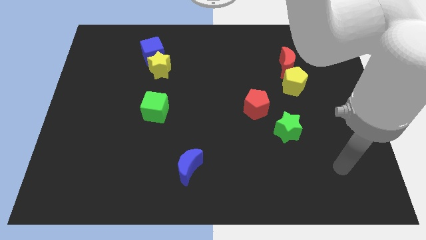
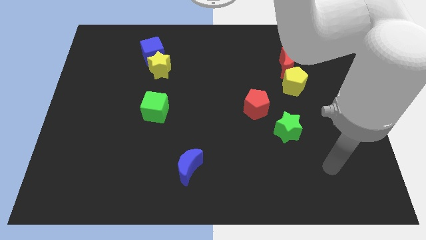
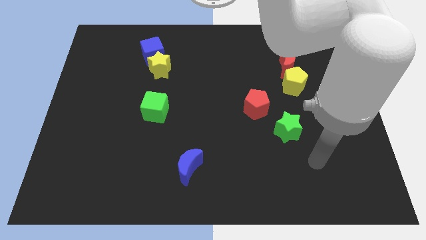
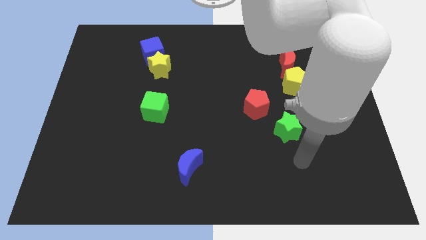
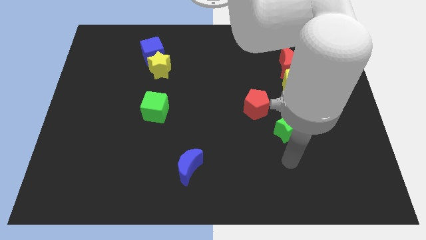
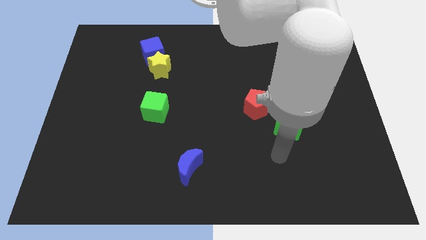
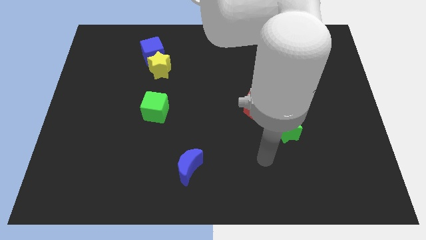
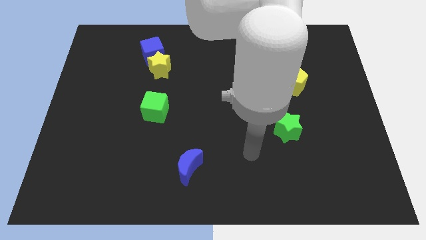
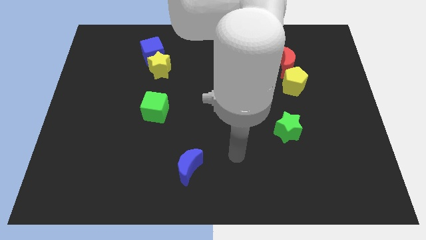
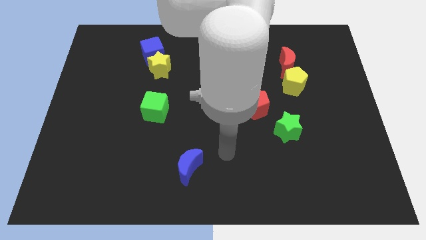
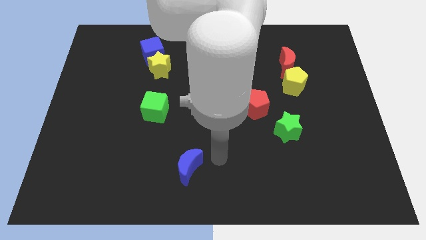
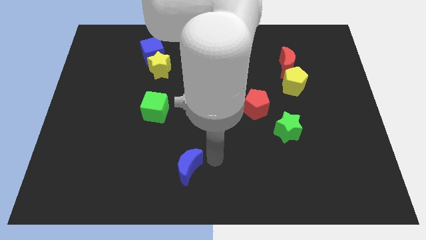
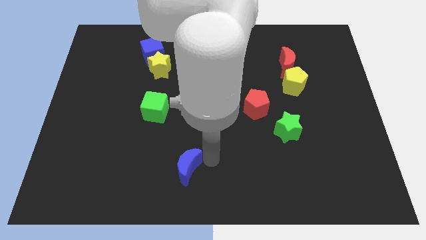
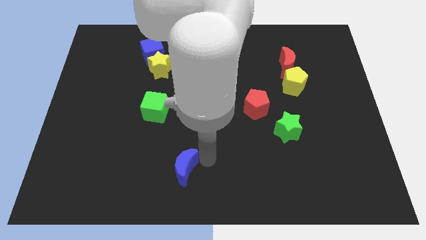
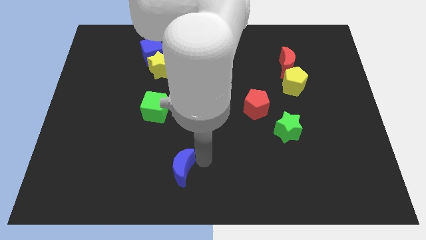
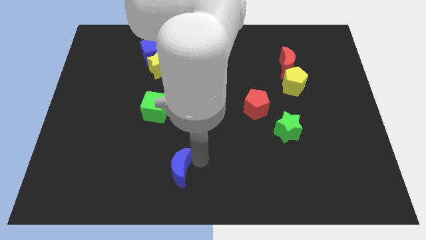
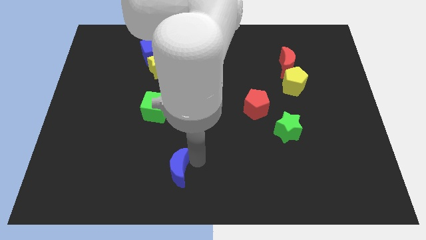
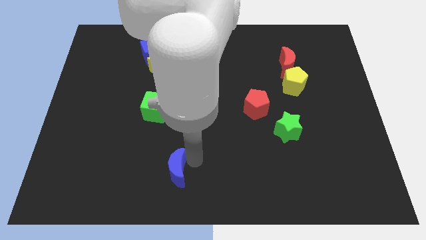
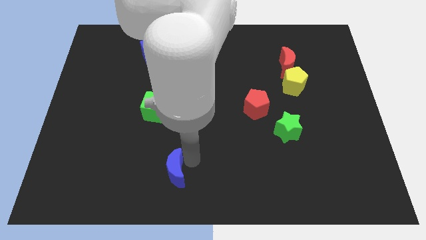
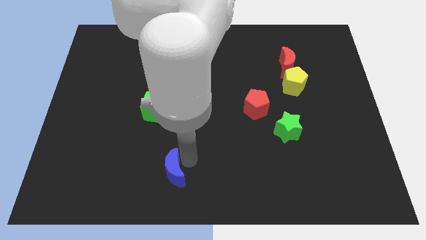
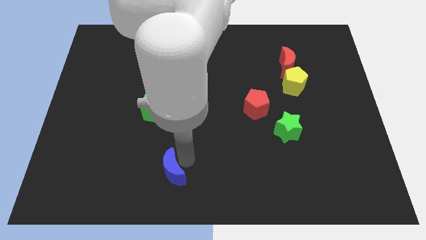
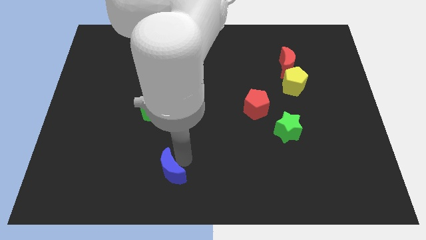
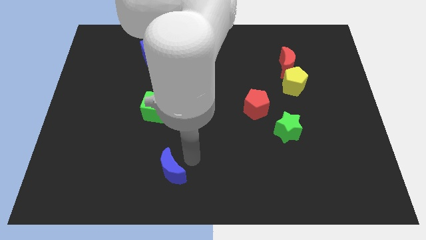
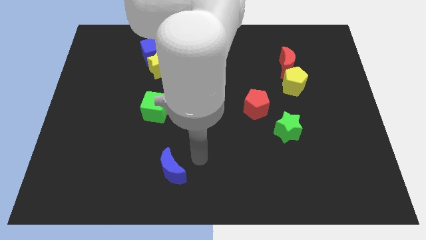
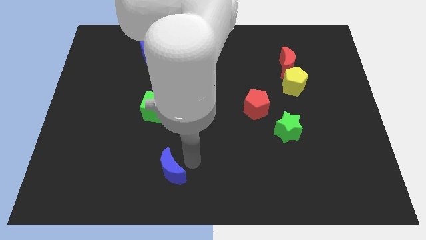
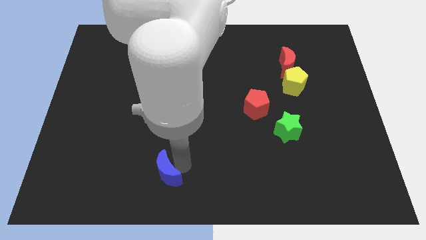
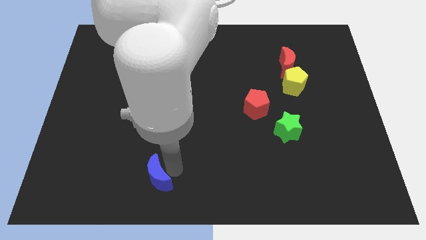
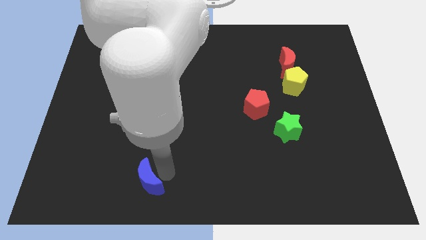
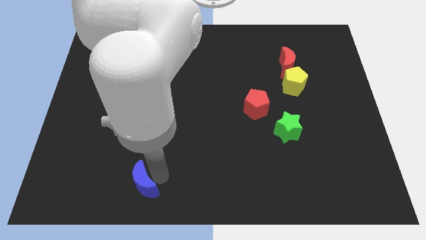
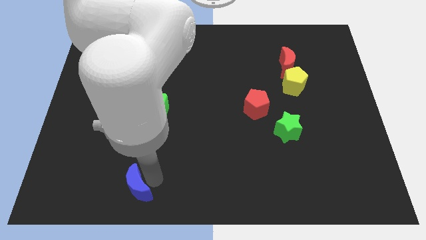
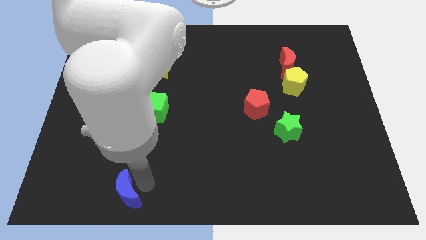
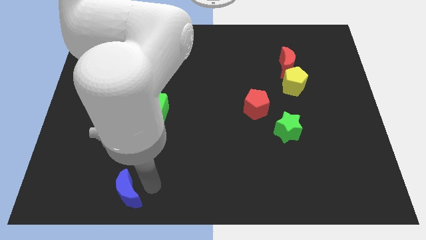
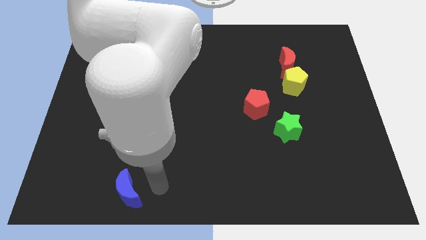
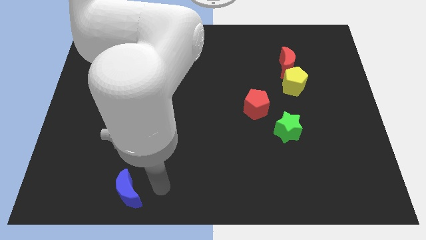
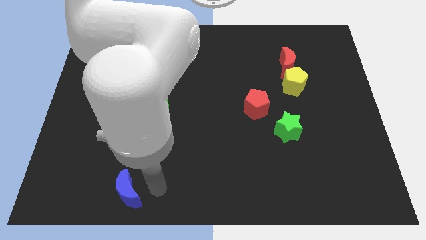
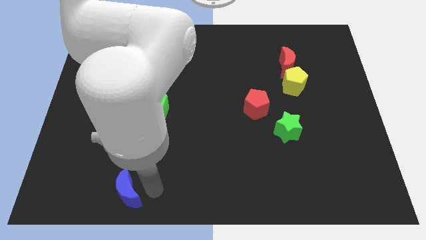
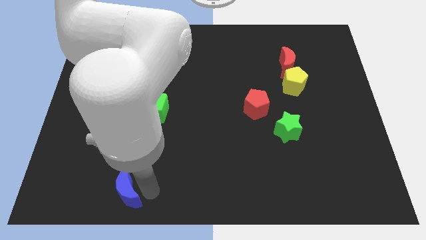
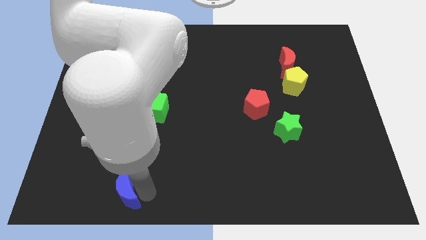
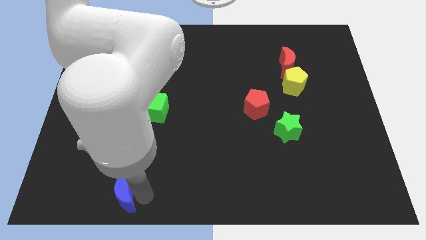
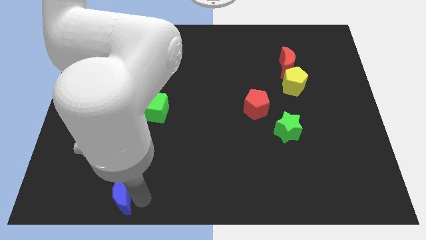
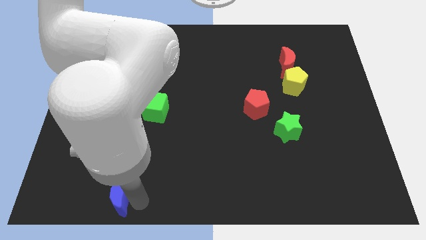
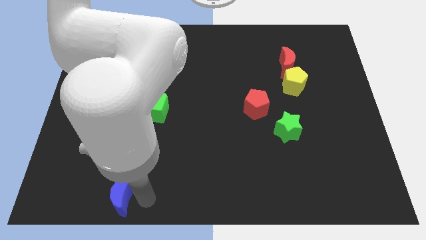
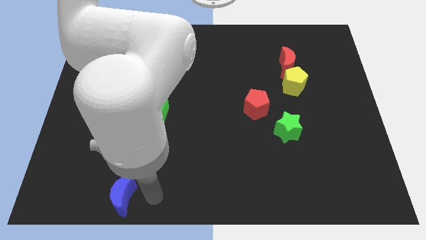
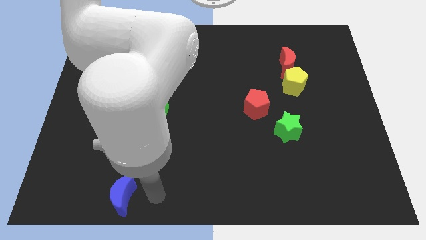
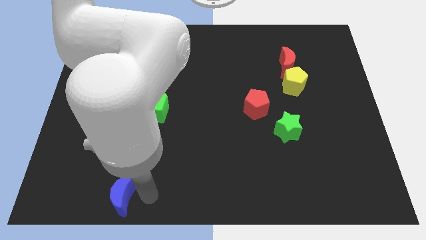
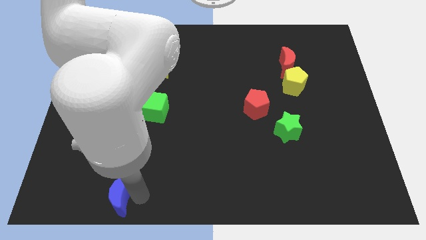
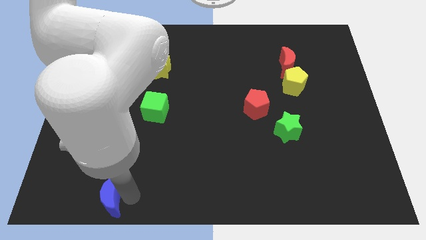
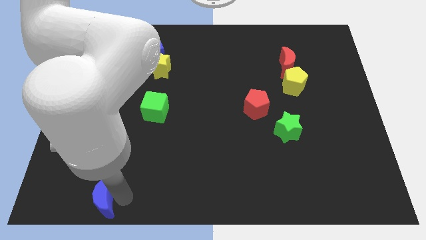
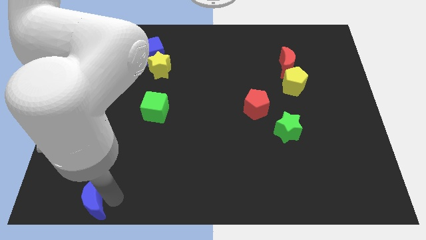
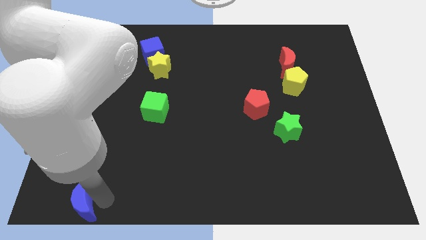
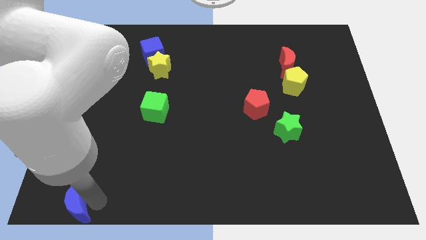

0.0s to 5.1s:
slide the blue moon to the bottom left of the board

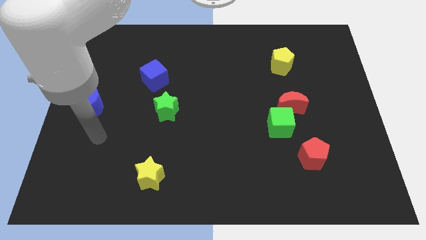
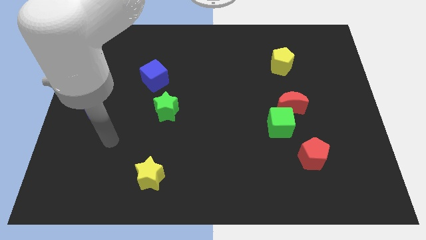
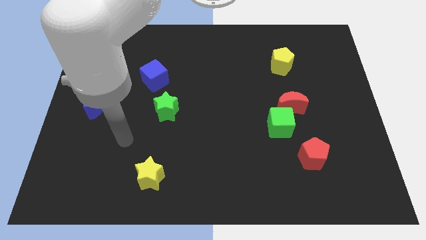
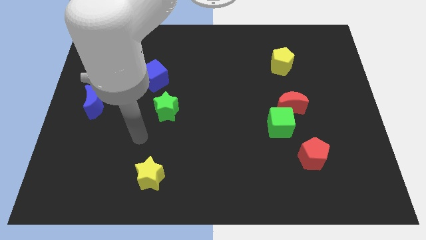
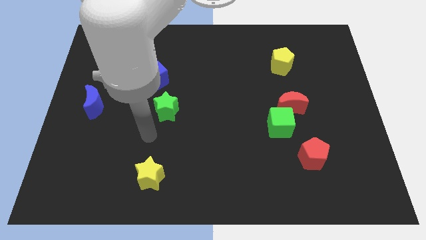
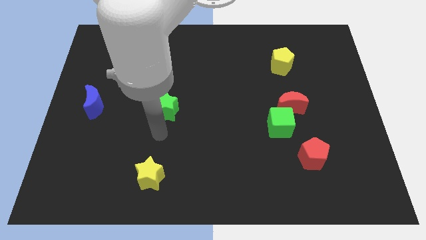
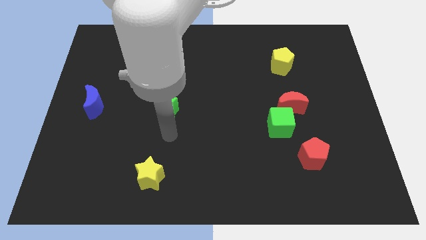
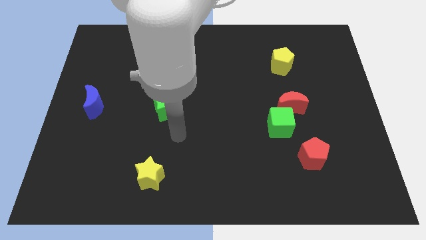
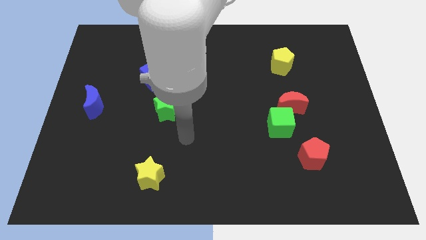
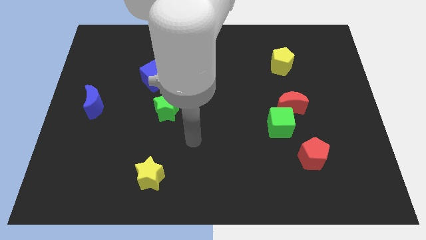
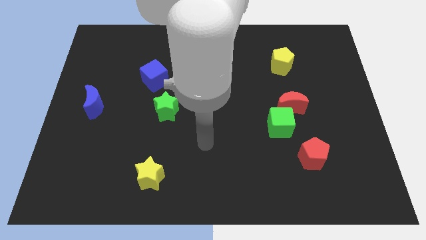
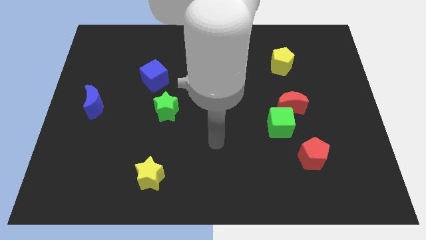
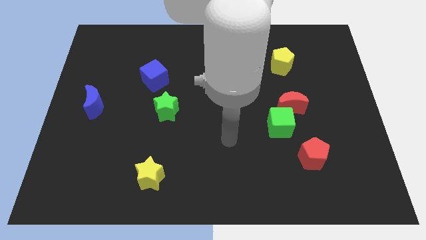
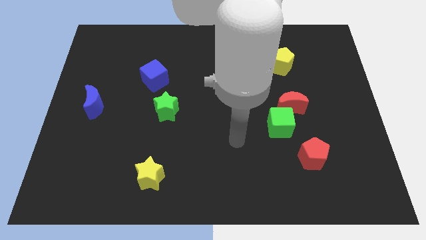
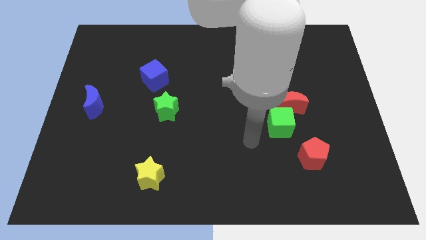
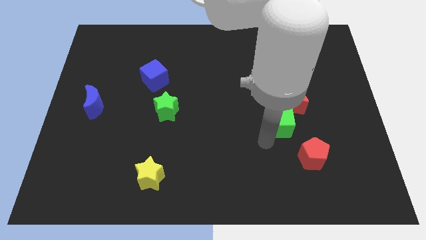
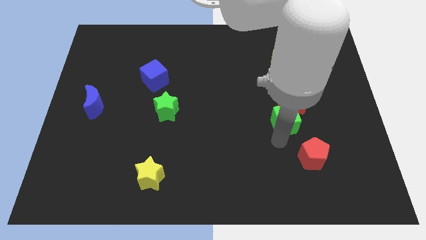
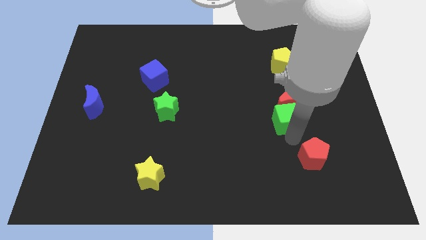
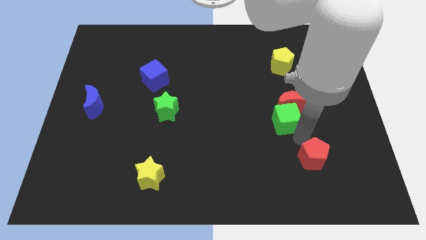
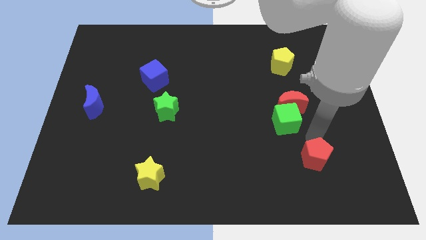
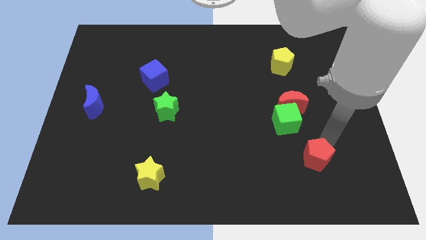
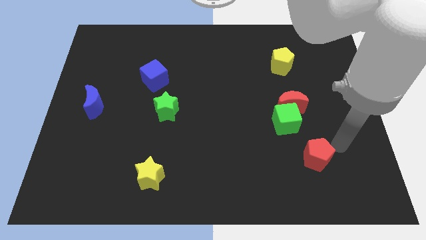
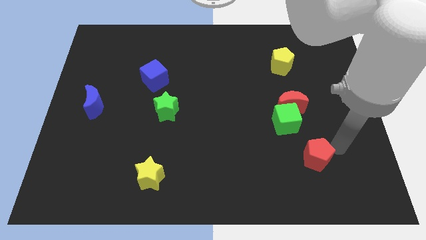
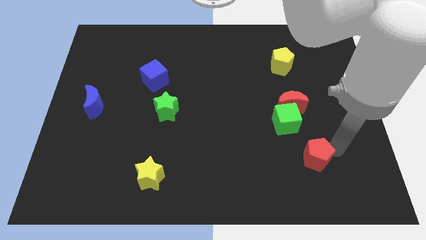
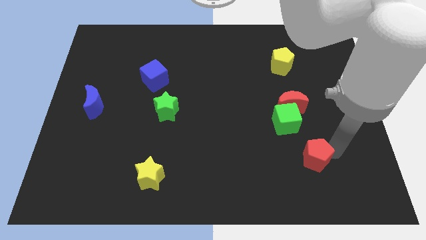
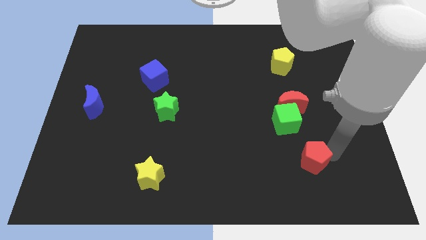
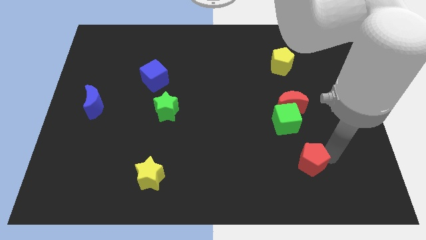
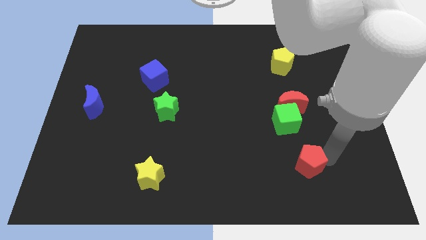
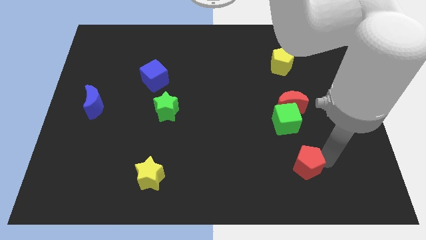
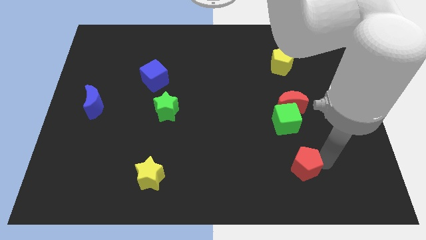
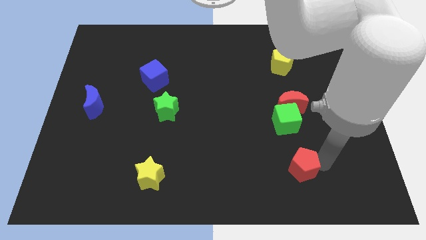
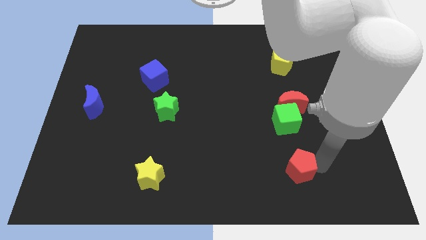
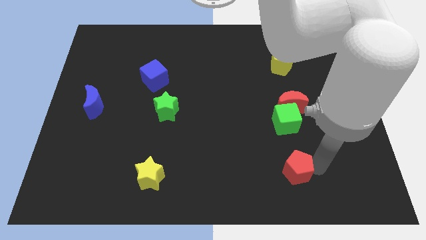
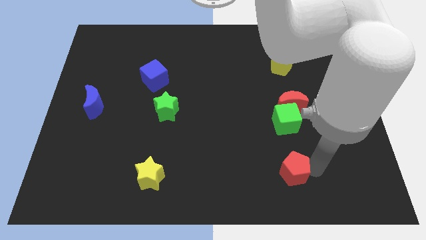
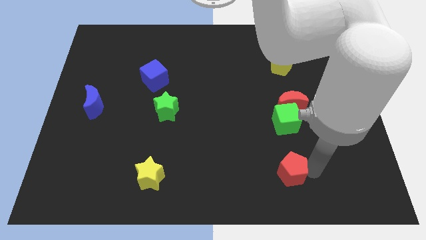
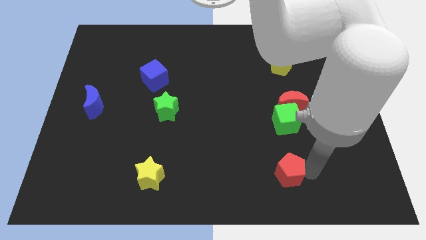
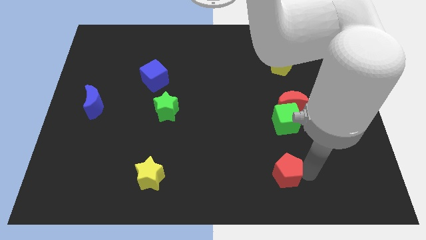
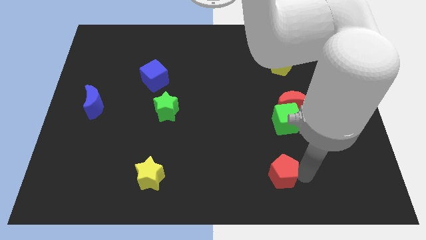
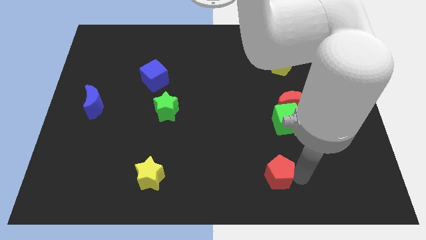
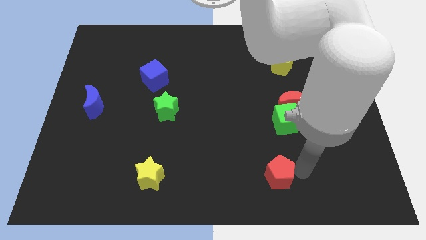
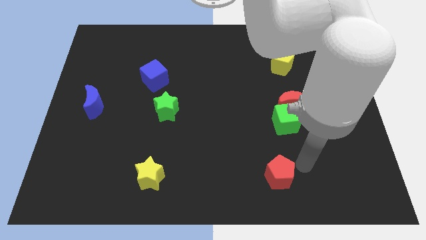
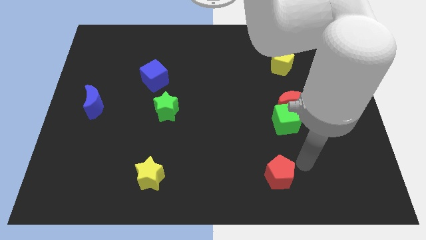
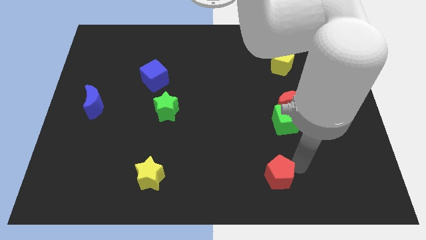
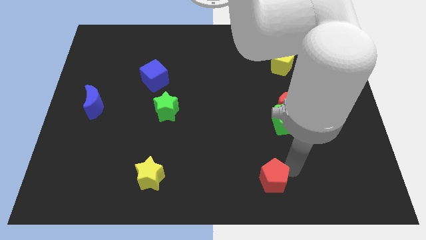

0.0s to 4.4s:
put the red pentagon to the bottom side
